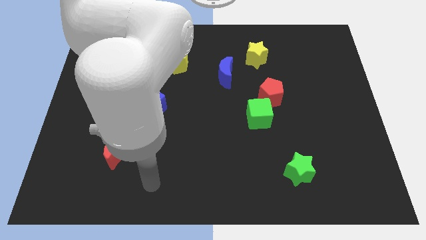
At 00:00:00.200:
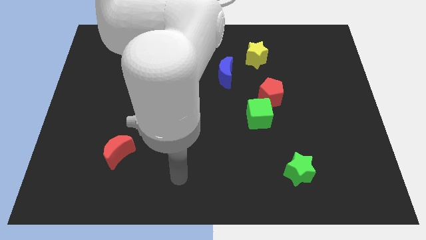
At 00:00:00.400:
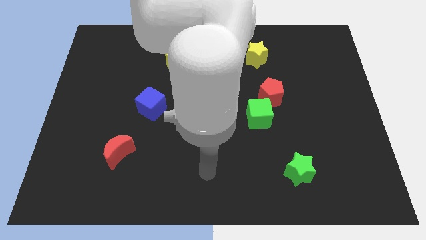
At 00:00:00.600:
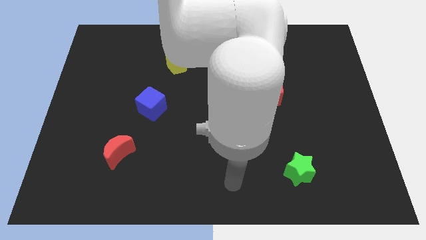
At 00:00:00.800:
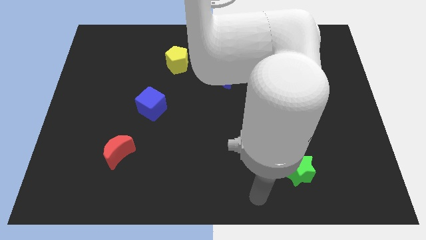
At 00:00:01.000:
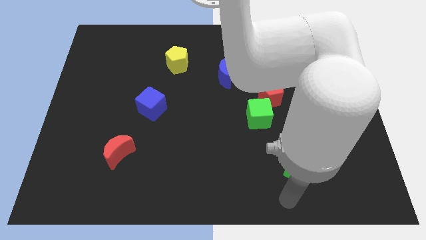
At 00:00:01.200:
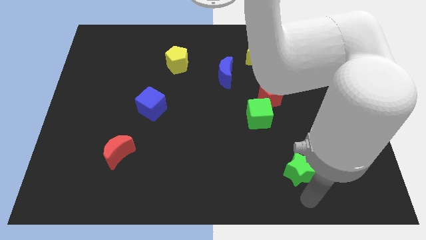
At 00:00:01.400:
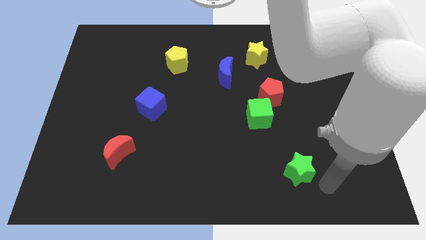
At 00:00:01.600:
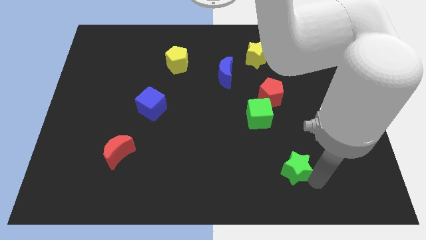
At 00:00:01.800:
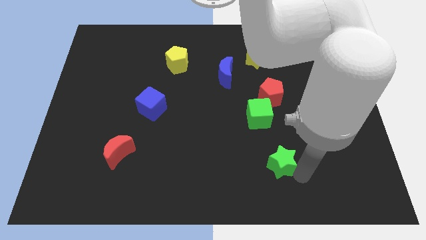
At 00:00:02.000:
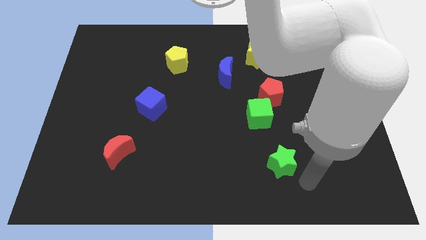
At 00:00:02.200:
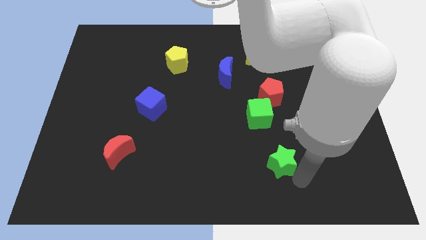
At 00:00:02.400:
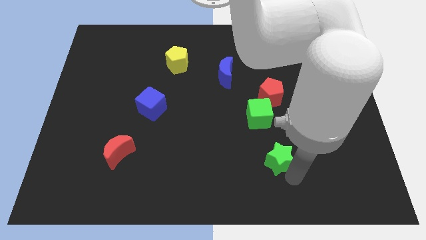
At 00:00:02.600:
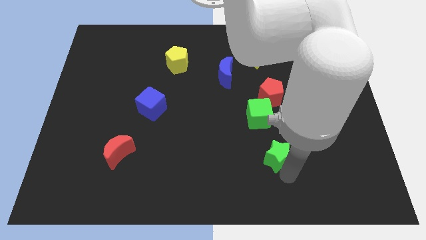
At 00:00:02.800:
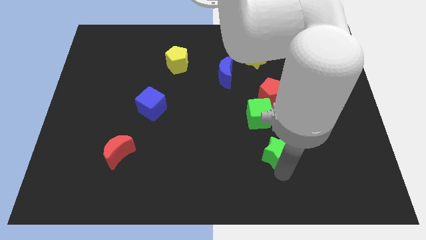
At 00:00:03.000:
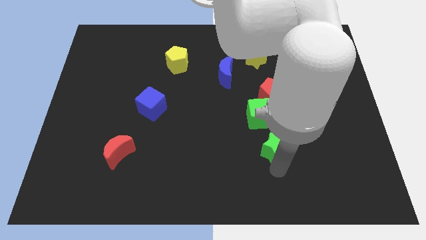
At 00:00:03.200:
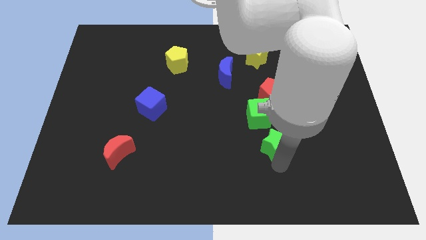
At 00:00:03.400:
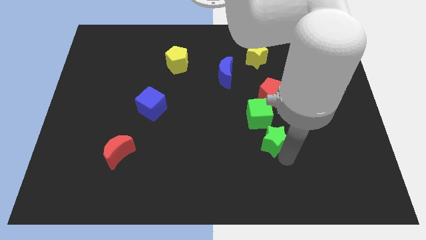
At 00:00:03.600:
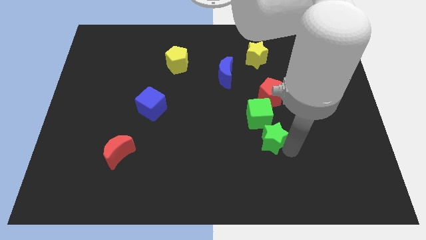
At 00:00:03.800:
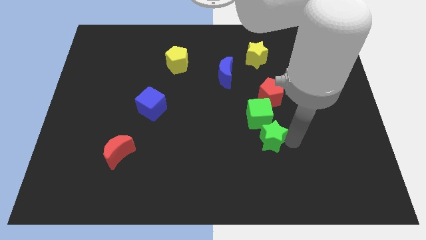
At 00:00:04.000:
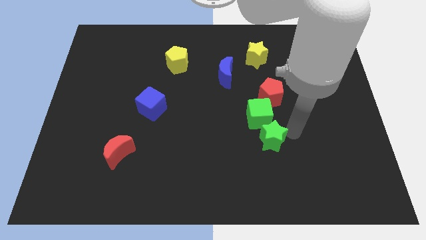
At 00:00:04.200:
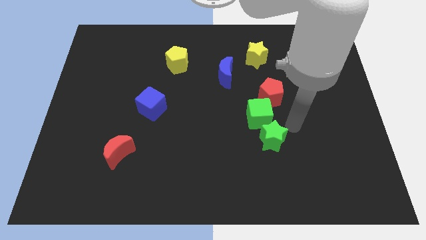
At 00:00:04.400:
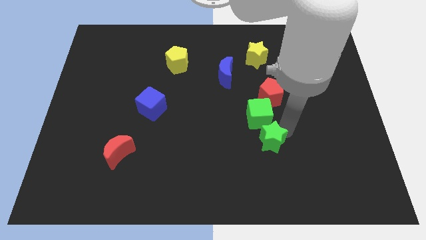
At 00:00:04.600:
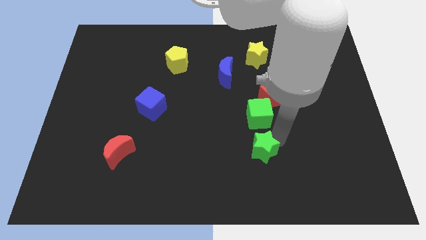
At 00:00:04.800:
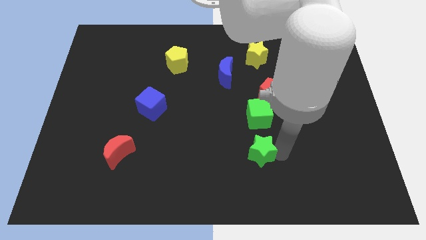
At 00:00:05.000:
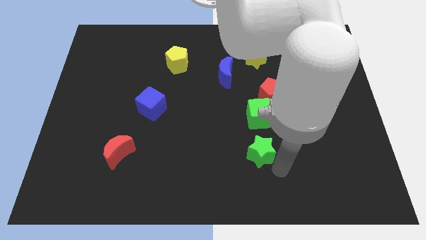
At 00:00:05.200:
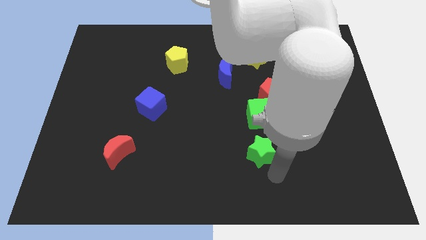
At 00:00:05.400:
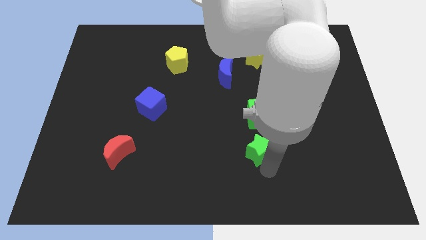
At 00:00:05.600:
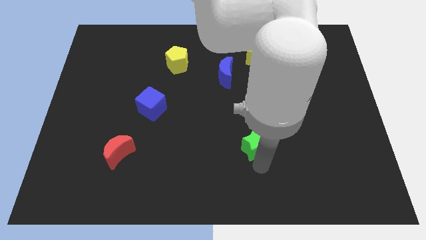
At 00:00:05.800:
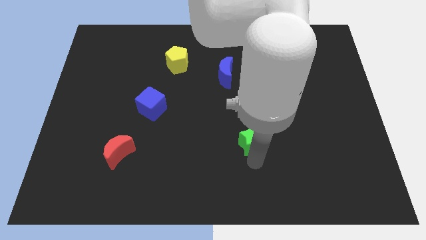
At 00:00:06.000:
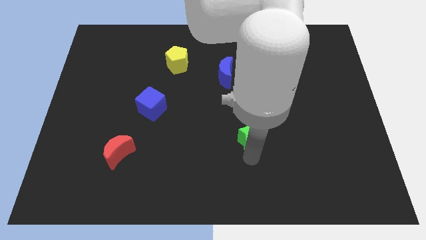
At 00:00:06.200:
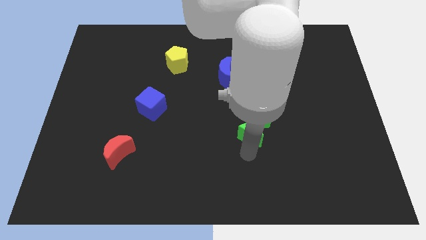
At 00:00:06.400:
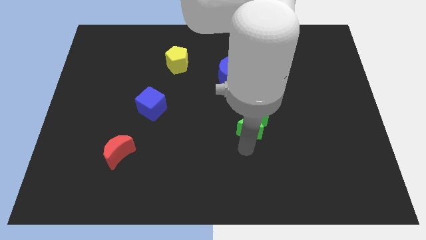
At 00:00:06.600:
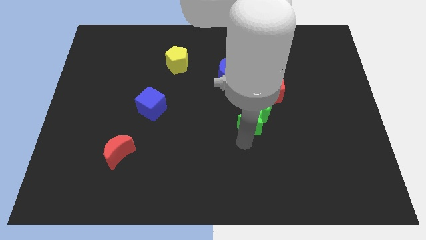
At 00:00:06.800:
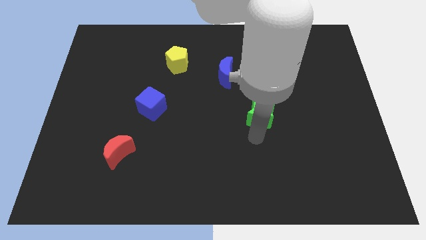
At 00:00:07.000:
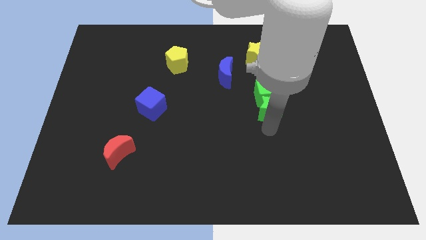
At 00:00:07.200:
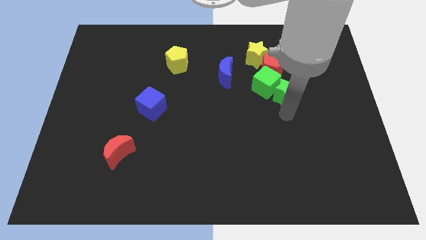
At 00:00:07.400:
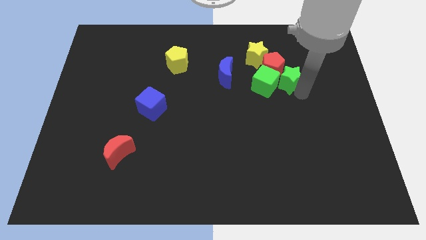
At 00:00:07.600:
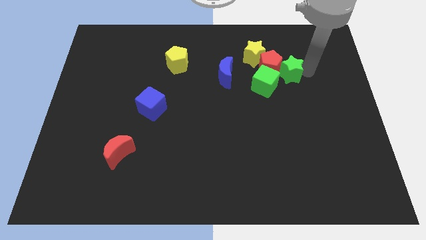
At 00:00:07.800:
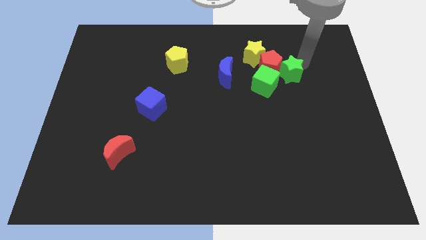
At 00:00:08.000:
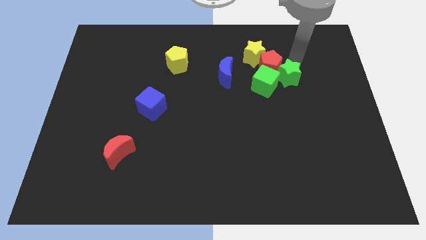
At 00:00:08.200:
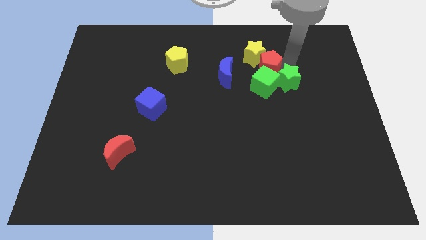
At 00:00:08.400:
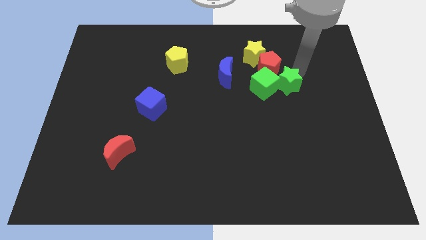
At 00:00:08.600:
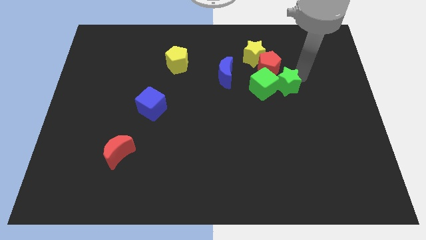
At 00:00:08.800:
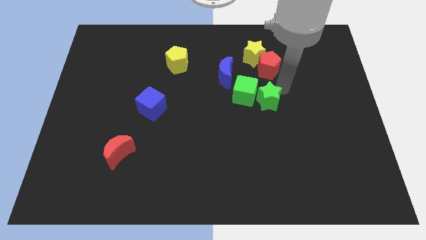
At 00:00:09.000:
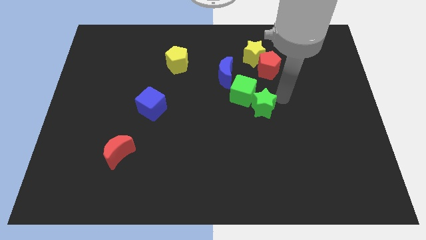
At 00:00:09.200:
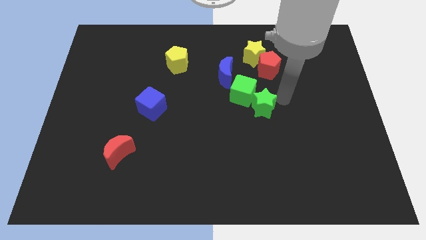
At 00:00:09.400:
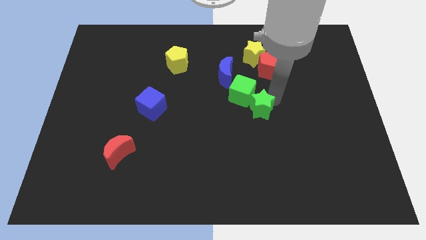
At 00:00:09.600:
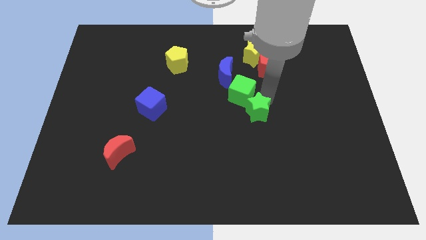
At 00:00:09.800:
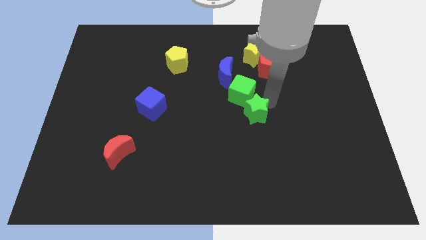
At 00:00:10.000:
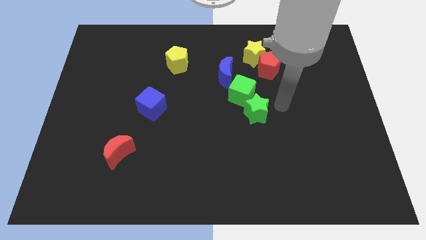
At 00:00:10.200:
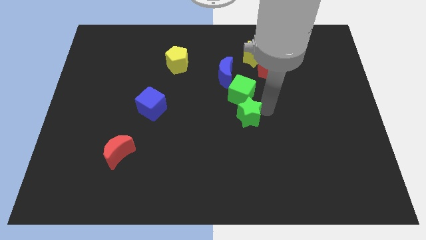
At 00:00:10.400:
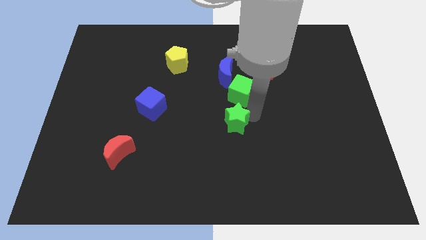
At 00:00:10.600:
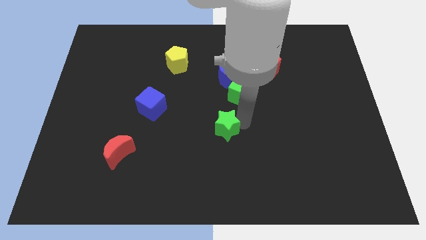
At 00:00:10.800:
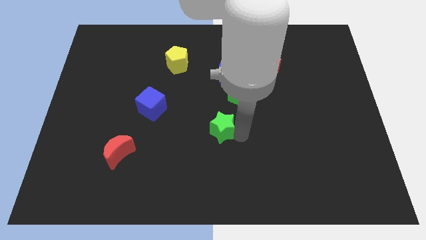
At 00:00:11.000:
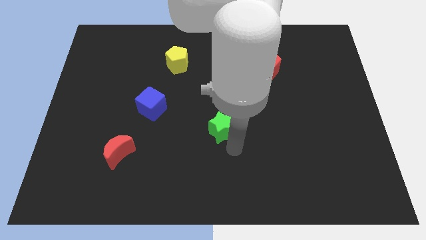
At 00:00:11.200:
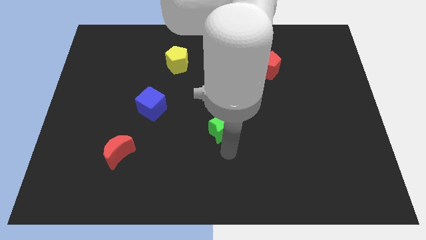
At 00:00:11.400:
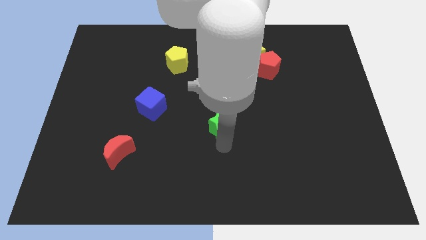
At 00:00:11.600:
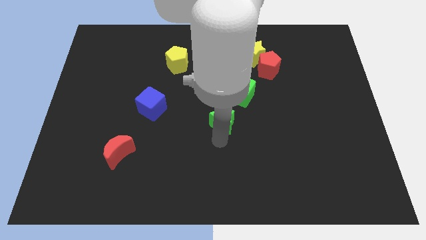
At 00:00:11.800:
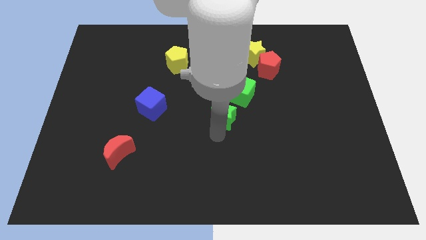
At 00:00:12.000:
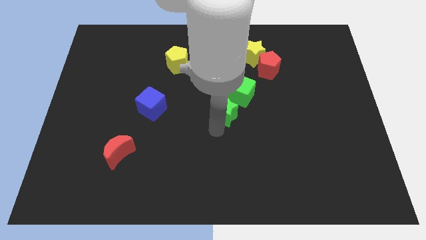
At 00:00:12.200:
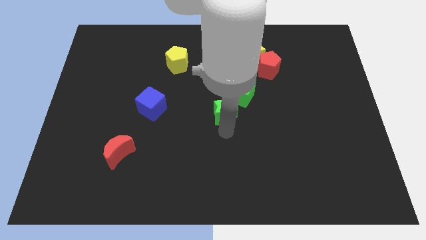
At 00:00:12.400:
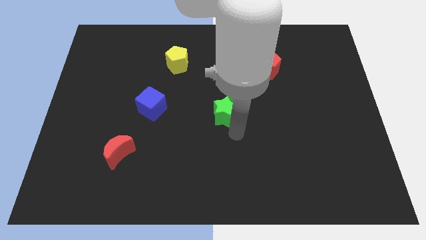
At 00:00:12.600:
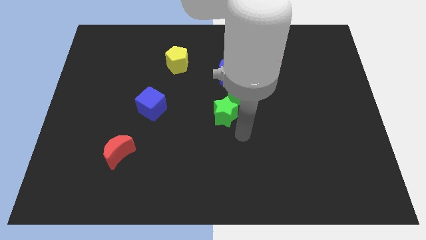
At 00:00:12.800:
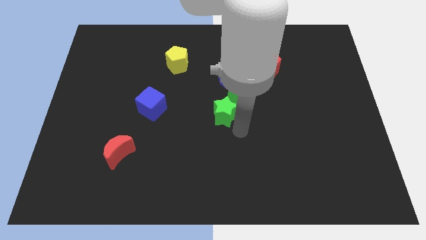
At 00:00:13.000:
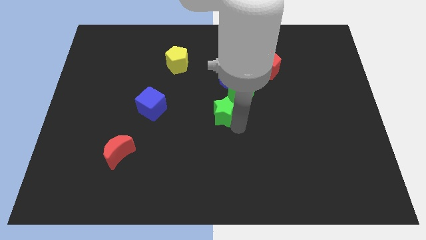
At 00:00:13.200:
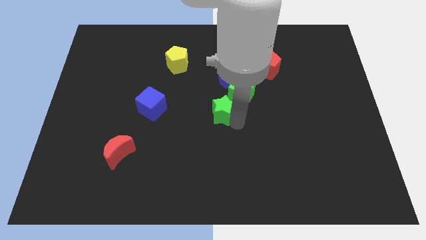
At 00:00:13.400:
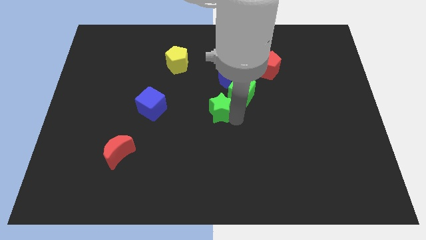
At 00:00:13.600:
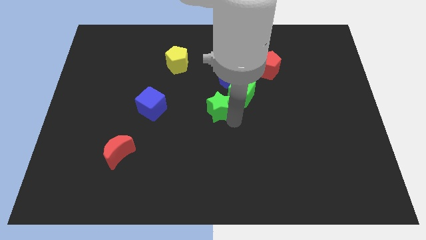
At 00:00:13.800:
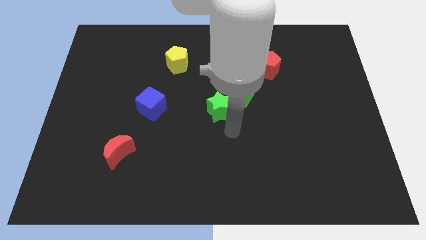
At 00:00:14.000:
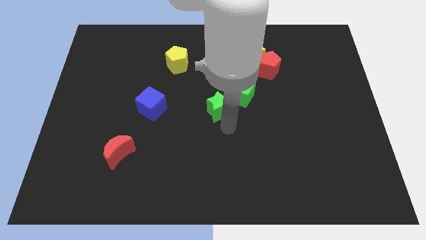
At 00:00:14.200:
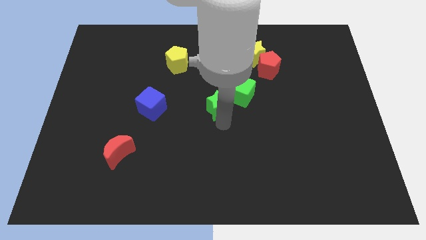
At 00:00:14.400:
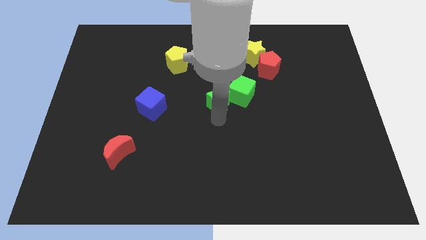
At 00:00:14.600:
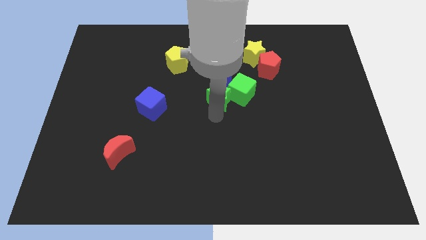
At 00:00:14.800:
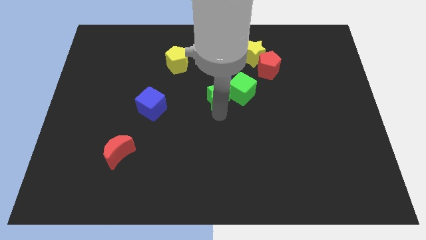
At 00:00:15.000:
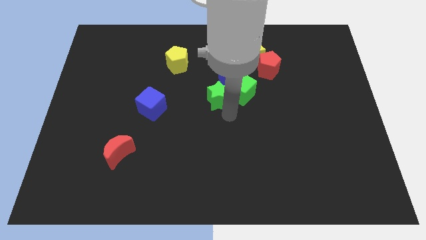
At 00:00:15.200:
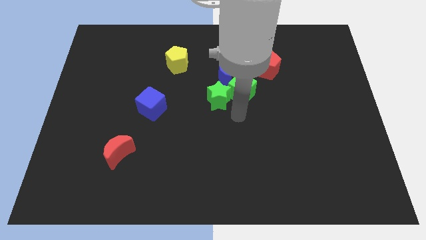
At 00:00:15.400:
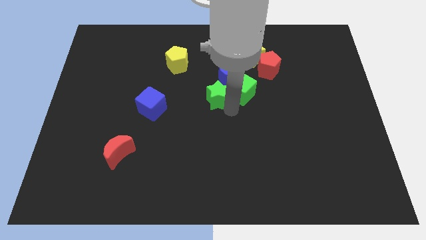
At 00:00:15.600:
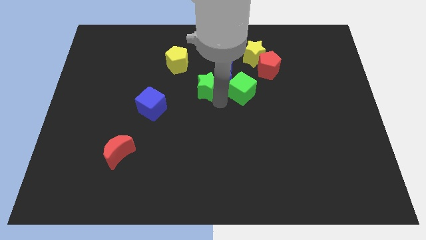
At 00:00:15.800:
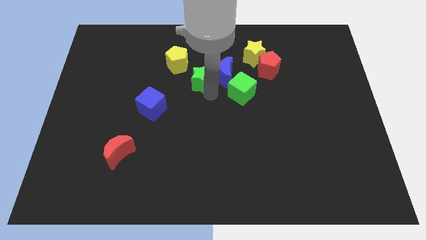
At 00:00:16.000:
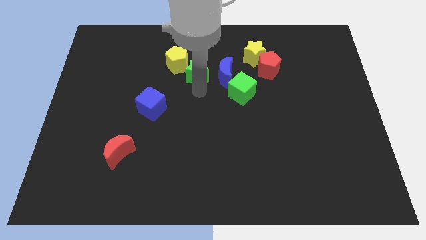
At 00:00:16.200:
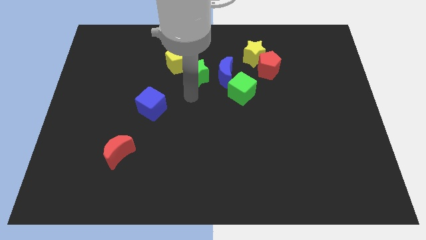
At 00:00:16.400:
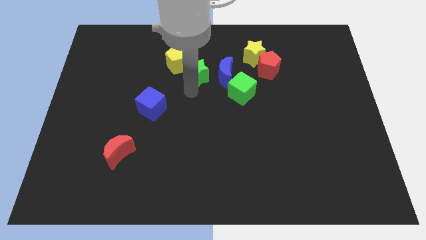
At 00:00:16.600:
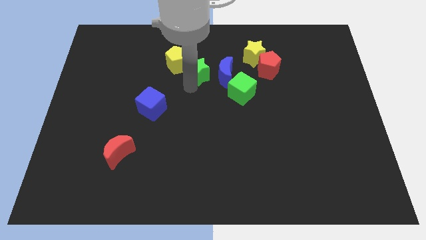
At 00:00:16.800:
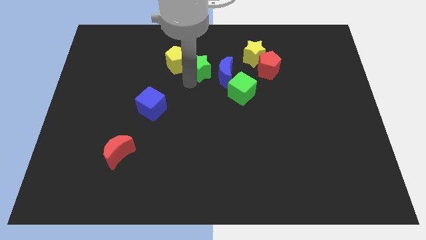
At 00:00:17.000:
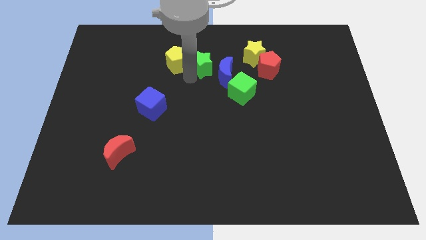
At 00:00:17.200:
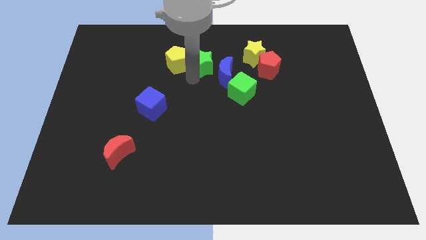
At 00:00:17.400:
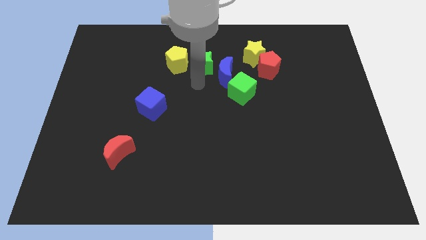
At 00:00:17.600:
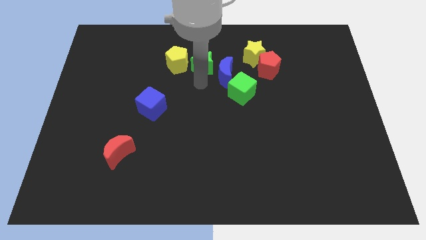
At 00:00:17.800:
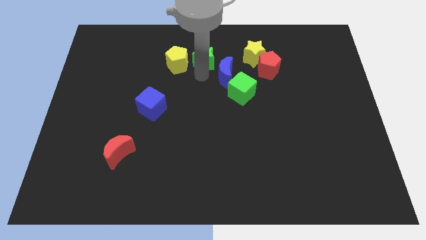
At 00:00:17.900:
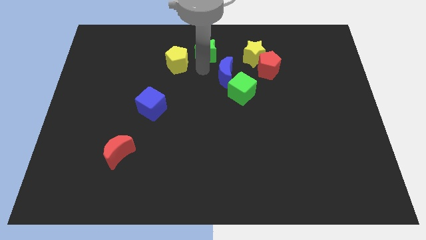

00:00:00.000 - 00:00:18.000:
push the green star to the towards your base
